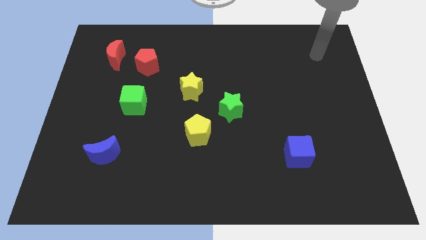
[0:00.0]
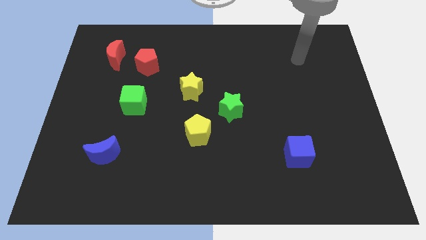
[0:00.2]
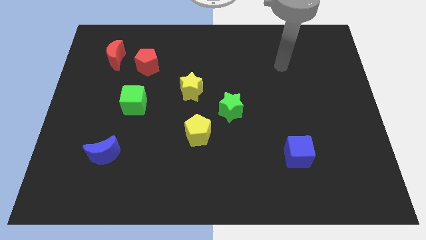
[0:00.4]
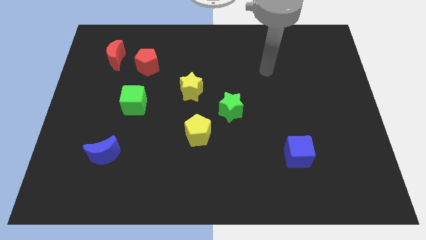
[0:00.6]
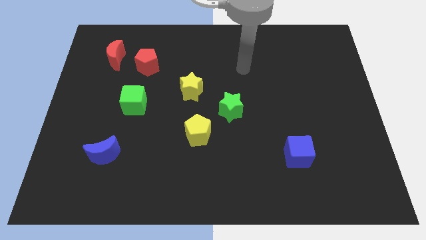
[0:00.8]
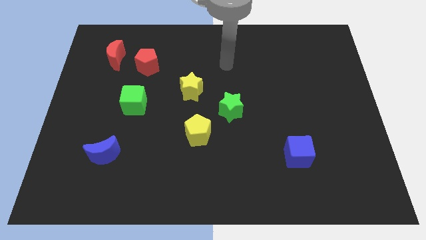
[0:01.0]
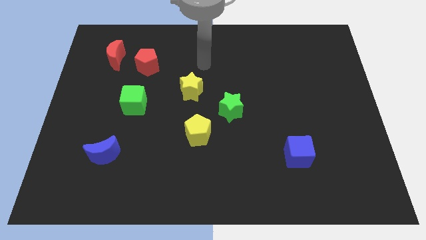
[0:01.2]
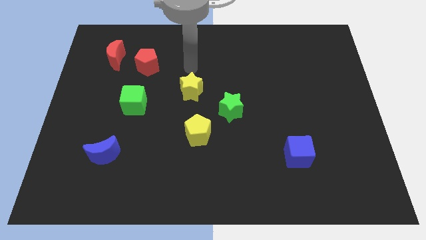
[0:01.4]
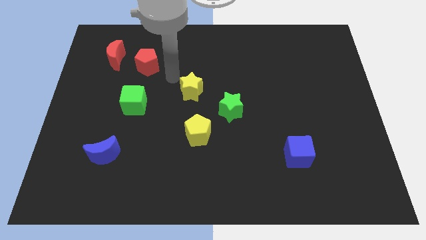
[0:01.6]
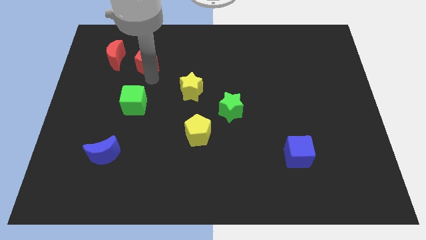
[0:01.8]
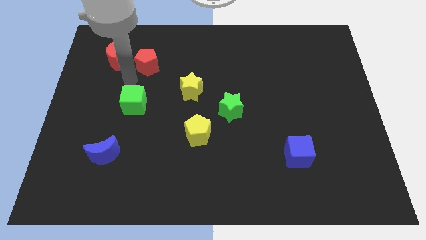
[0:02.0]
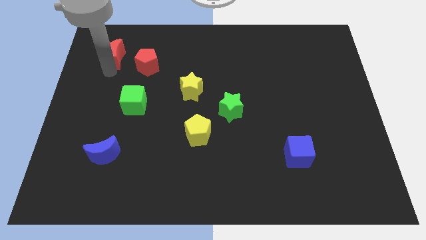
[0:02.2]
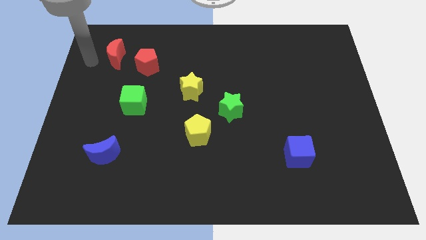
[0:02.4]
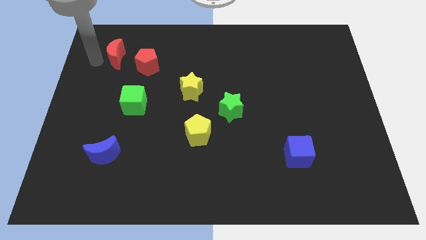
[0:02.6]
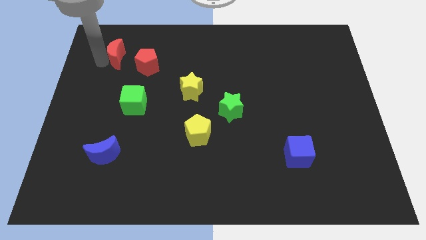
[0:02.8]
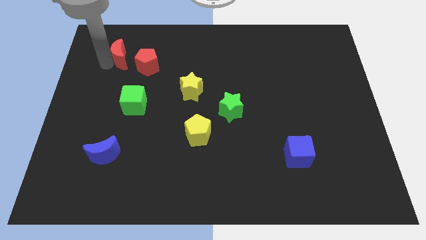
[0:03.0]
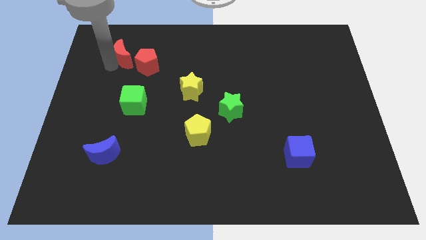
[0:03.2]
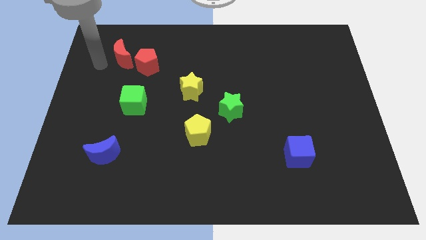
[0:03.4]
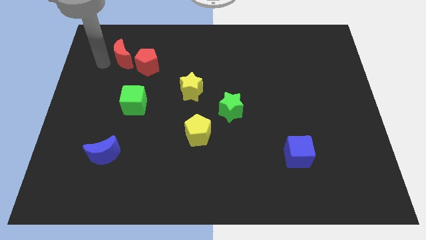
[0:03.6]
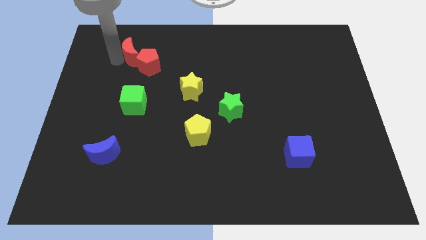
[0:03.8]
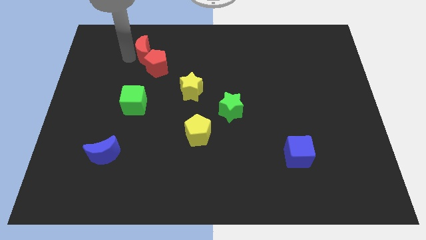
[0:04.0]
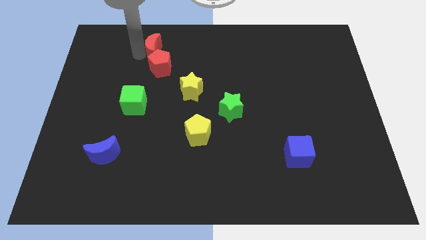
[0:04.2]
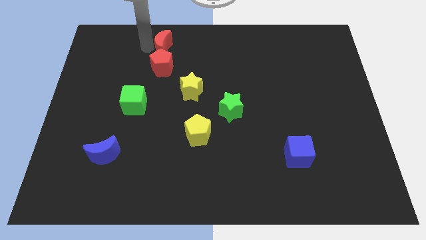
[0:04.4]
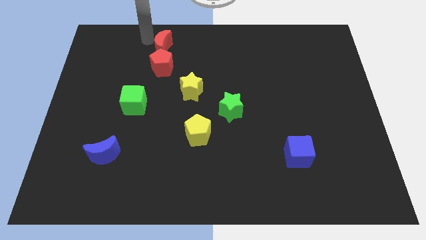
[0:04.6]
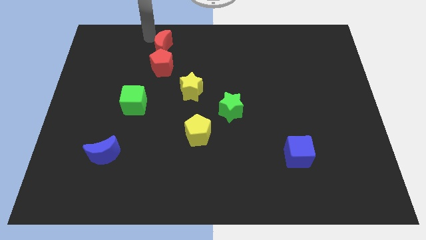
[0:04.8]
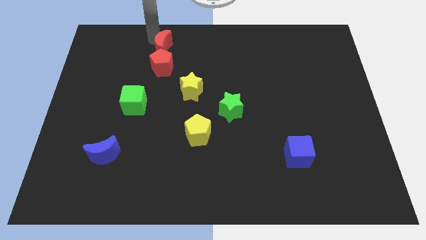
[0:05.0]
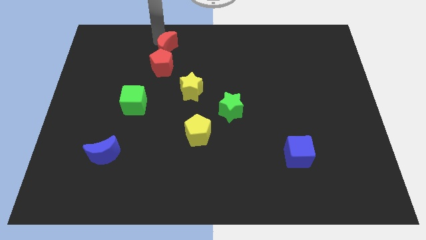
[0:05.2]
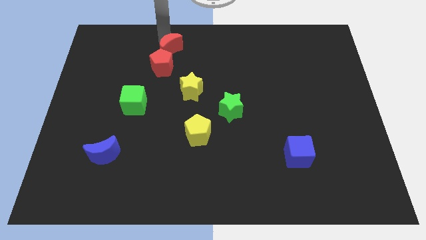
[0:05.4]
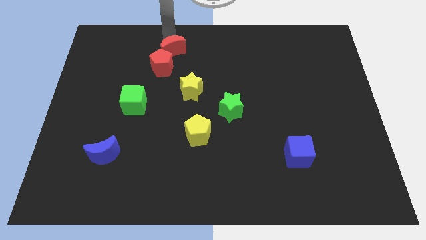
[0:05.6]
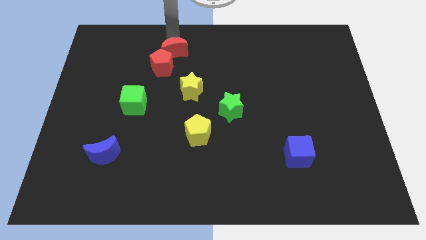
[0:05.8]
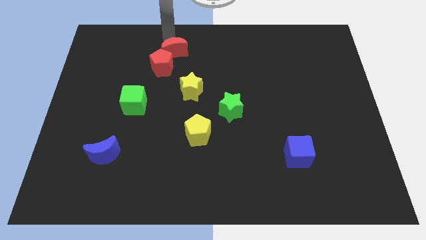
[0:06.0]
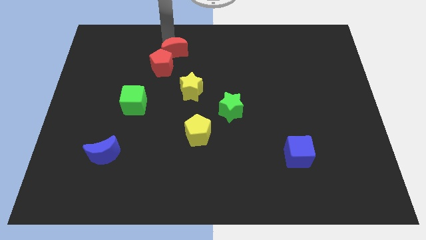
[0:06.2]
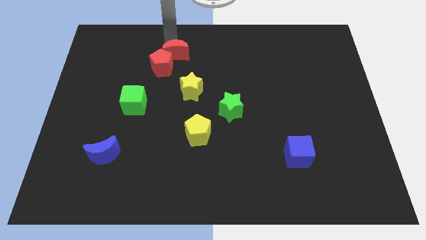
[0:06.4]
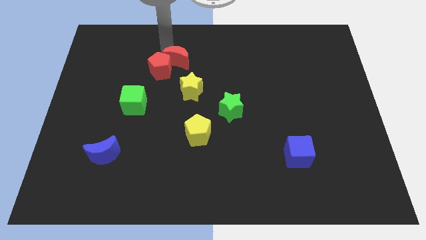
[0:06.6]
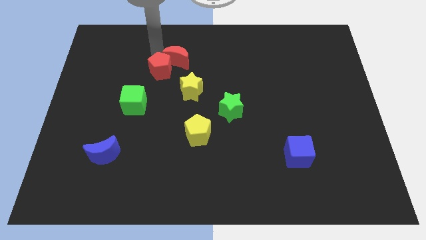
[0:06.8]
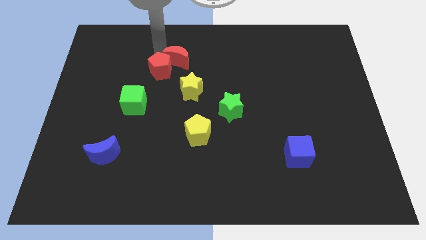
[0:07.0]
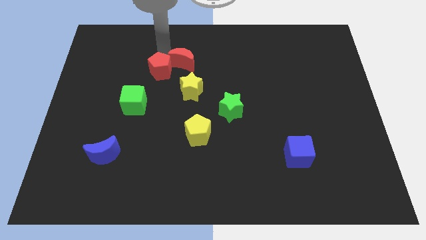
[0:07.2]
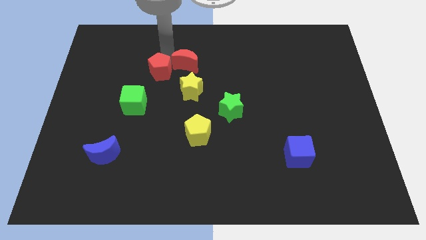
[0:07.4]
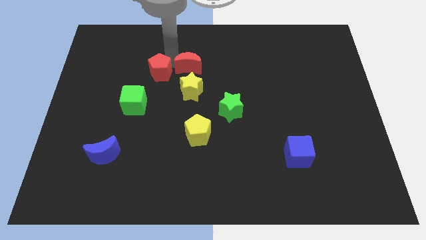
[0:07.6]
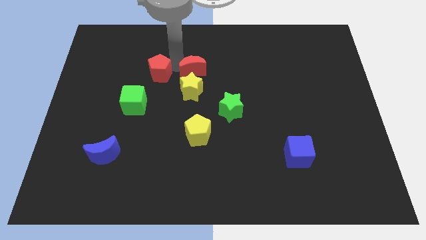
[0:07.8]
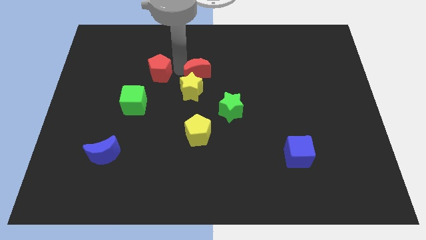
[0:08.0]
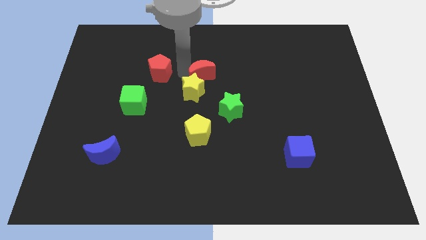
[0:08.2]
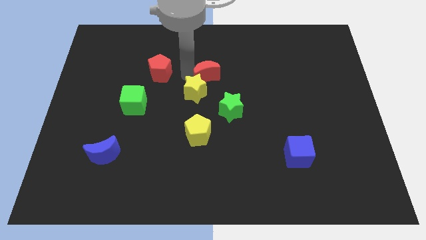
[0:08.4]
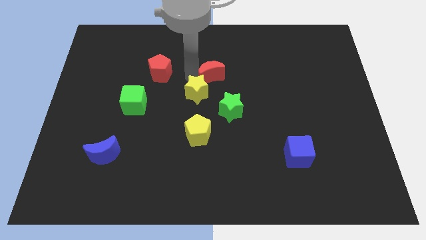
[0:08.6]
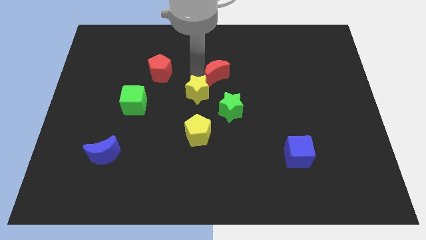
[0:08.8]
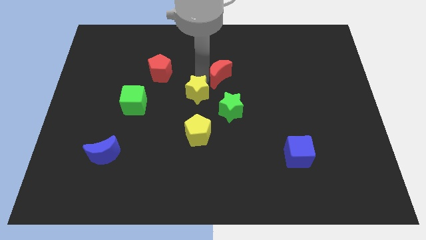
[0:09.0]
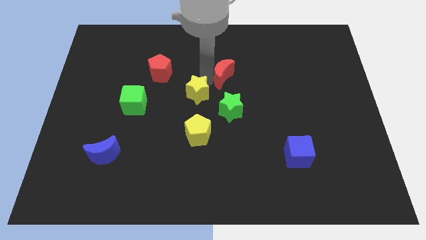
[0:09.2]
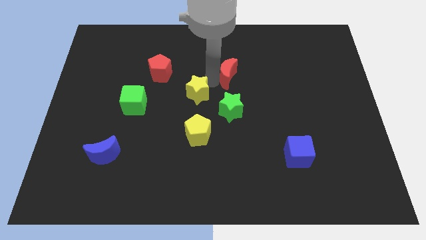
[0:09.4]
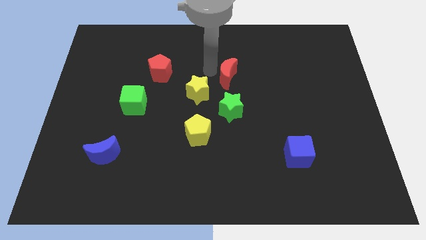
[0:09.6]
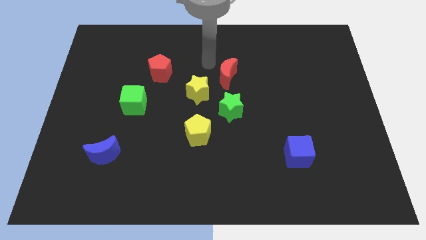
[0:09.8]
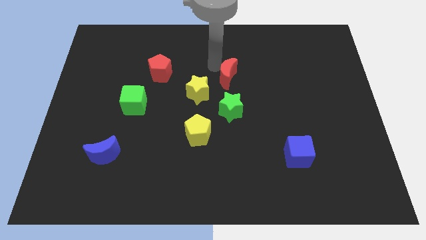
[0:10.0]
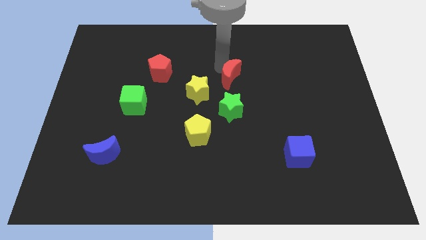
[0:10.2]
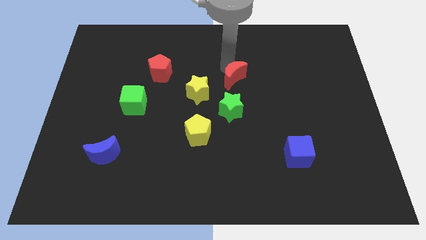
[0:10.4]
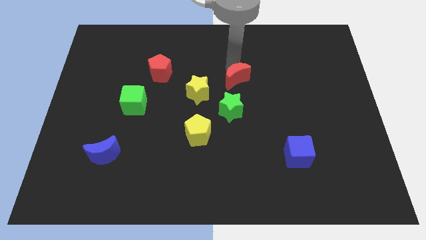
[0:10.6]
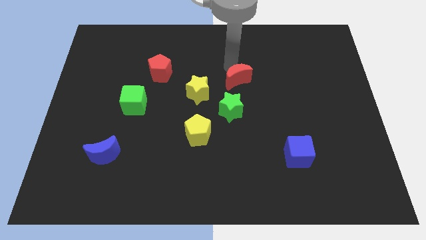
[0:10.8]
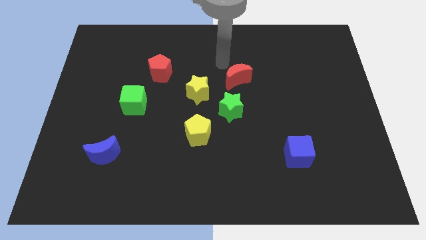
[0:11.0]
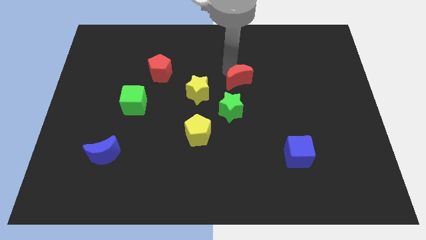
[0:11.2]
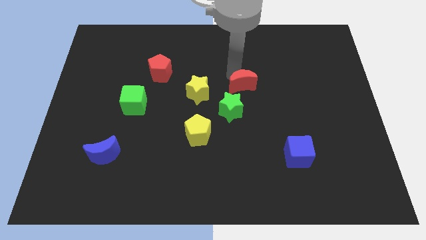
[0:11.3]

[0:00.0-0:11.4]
move the red moon diagonally up and to the right of the green star

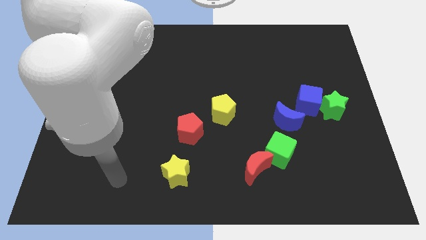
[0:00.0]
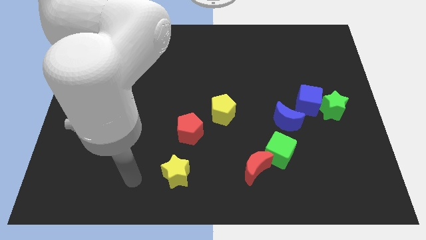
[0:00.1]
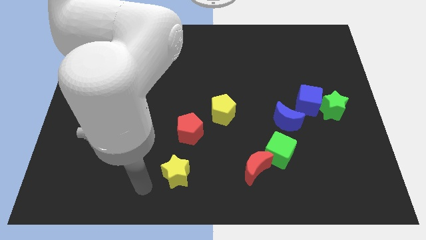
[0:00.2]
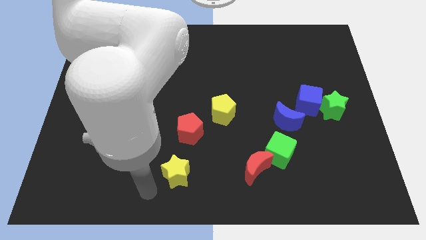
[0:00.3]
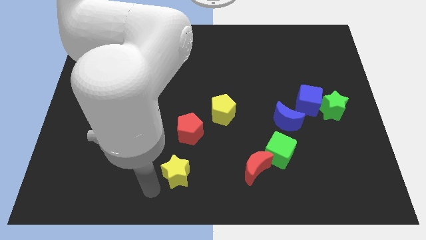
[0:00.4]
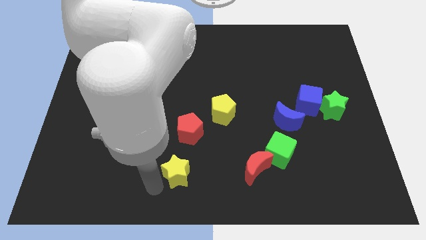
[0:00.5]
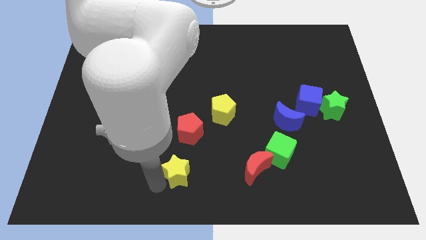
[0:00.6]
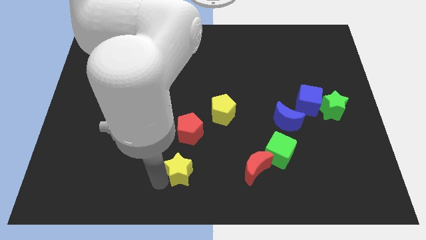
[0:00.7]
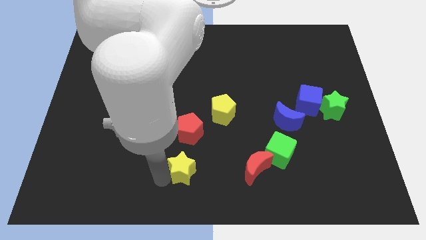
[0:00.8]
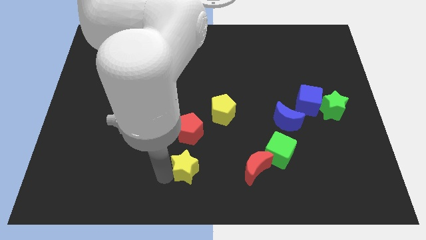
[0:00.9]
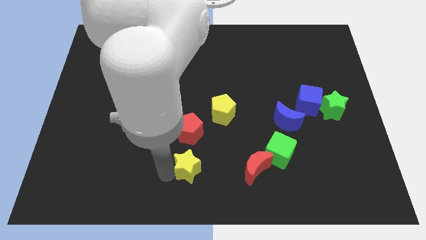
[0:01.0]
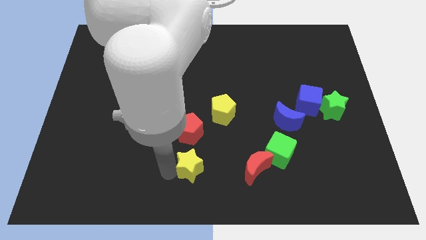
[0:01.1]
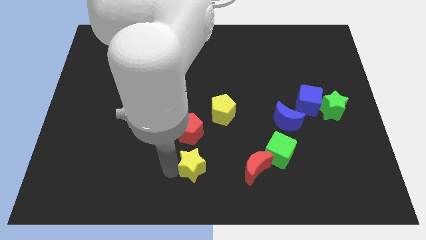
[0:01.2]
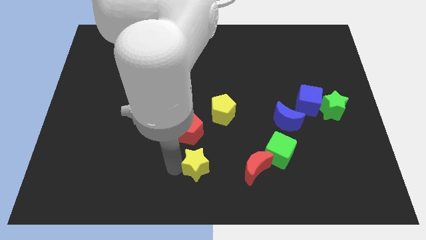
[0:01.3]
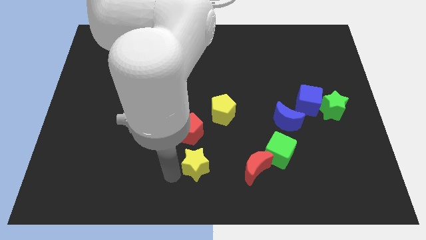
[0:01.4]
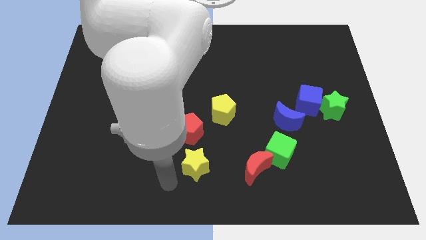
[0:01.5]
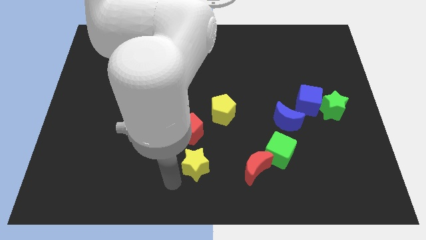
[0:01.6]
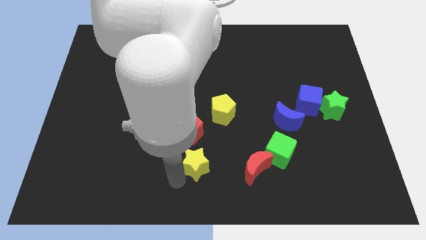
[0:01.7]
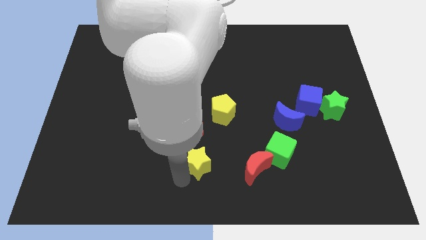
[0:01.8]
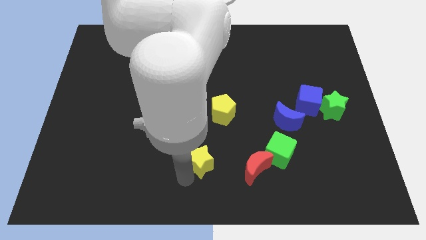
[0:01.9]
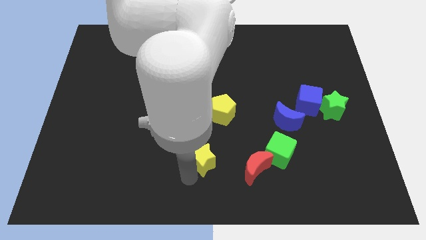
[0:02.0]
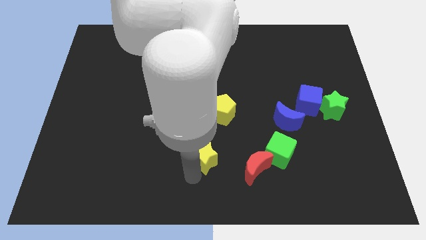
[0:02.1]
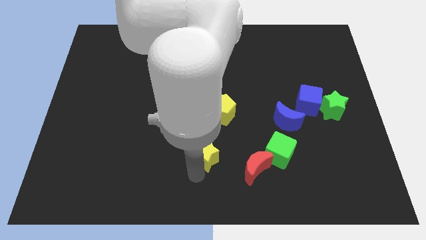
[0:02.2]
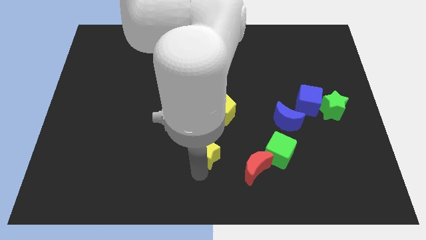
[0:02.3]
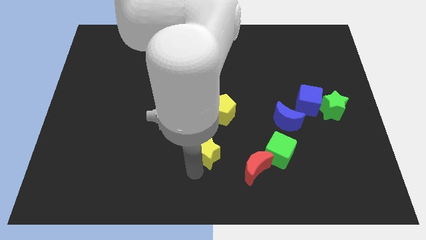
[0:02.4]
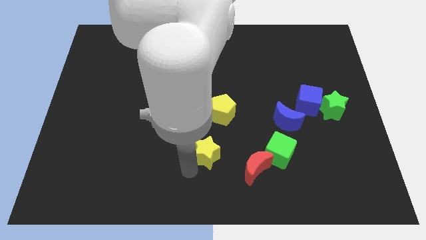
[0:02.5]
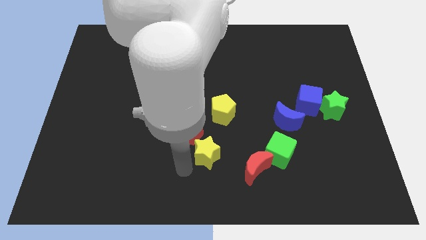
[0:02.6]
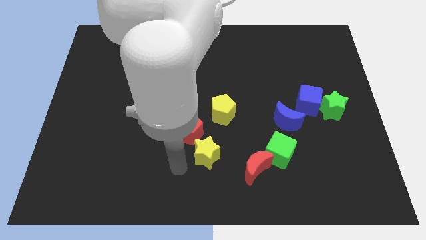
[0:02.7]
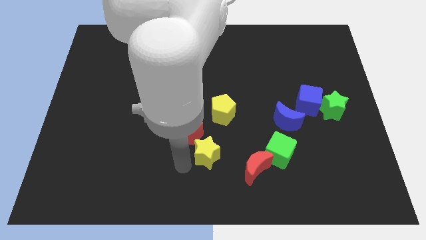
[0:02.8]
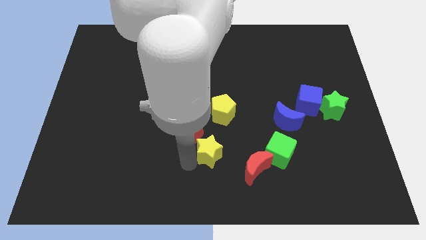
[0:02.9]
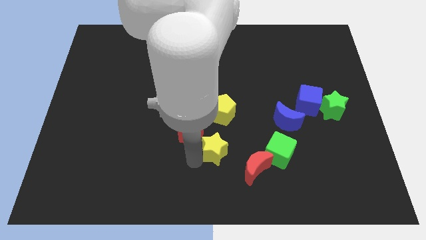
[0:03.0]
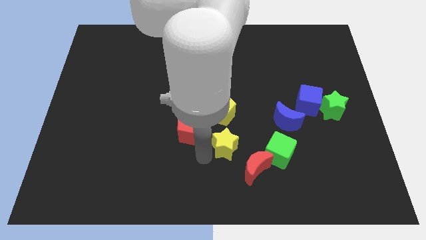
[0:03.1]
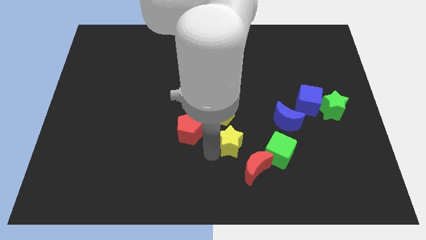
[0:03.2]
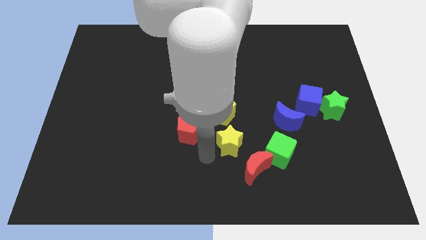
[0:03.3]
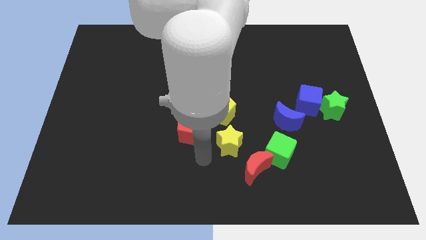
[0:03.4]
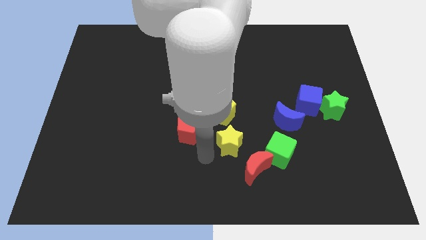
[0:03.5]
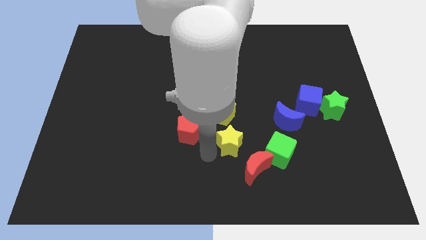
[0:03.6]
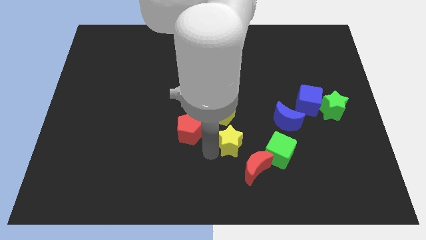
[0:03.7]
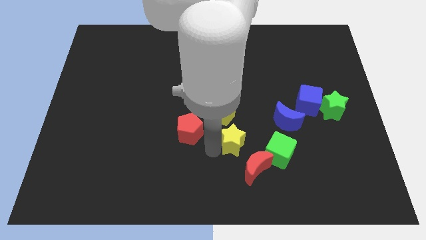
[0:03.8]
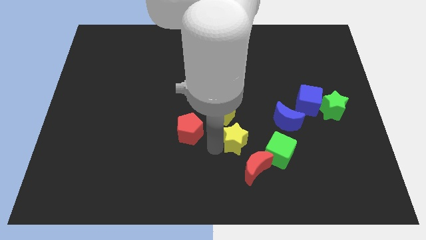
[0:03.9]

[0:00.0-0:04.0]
put the yellow star to the top left side of the green cube
